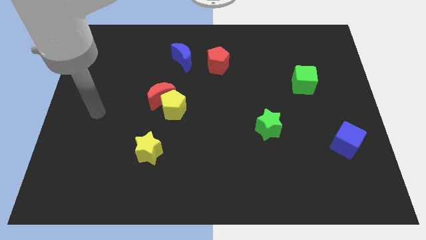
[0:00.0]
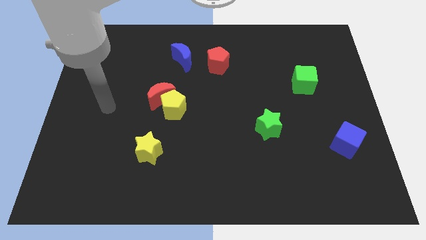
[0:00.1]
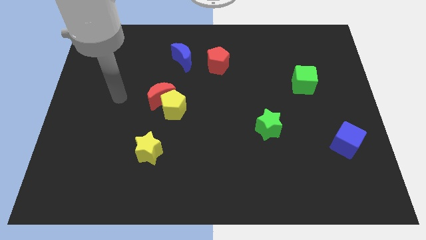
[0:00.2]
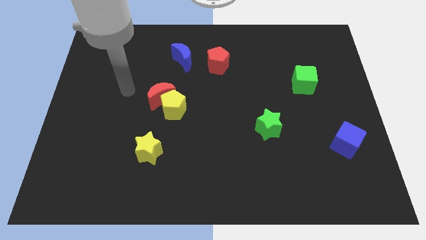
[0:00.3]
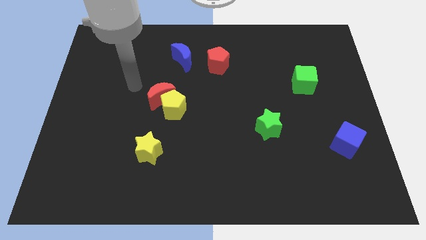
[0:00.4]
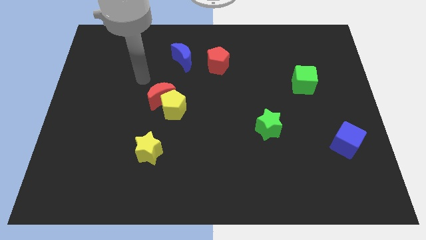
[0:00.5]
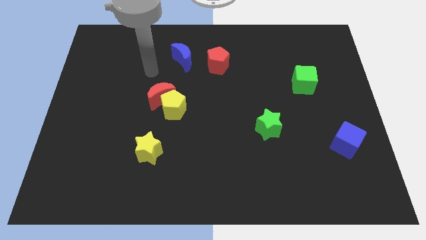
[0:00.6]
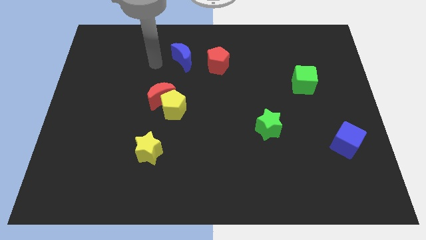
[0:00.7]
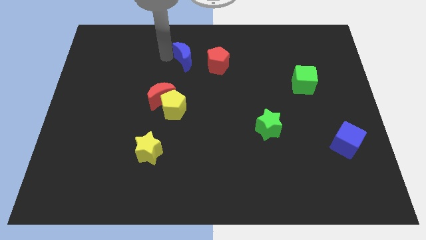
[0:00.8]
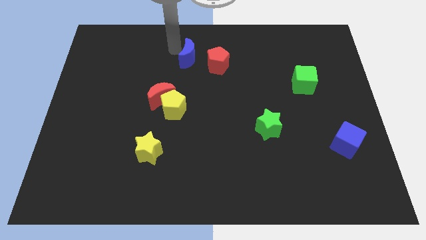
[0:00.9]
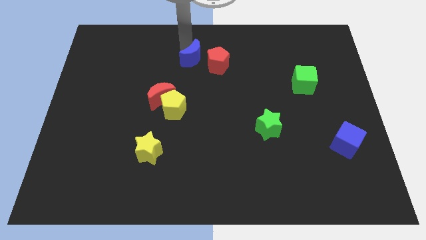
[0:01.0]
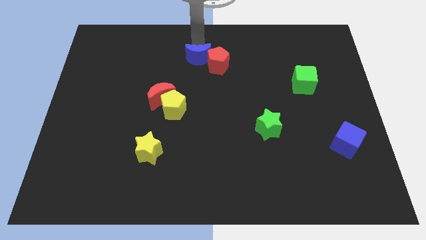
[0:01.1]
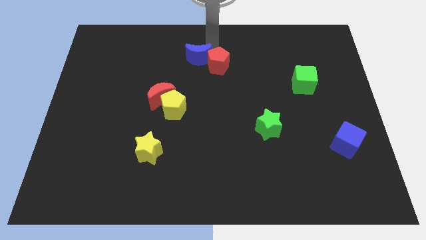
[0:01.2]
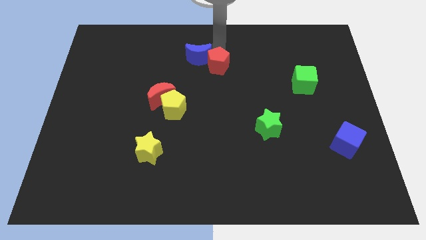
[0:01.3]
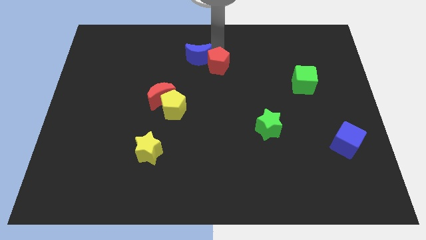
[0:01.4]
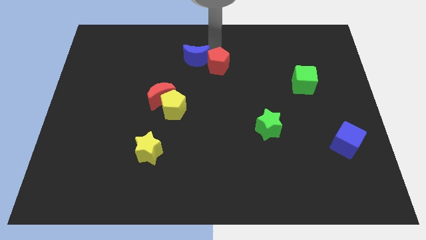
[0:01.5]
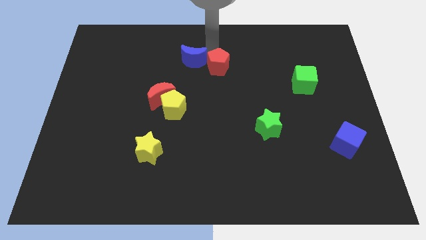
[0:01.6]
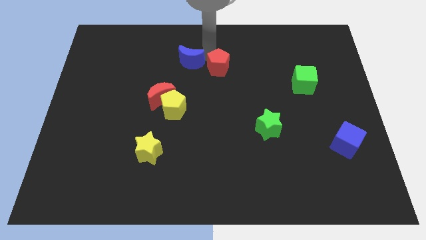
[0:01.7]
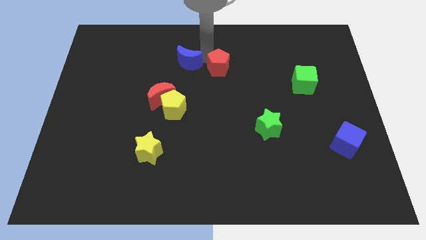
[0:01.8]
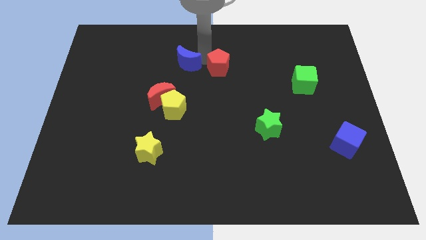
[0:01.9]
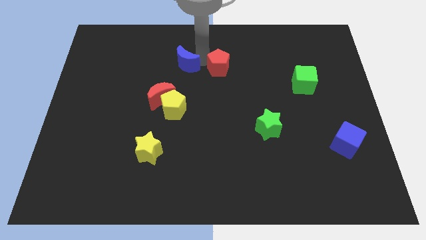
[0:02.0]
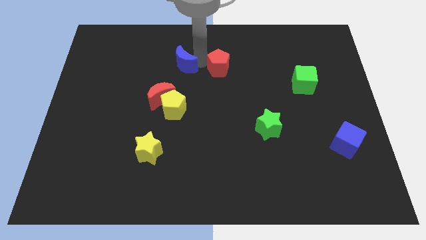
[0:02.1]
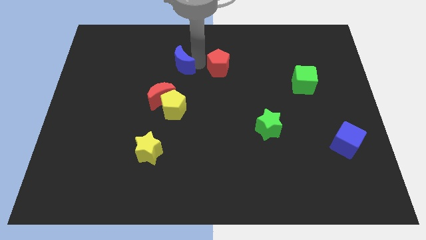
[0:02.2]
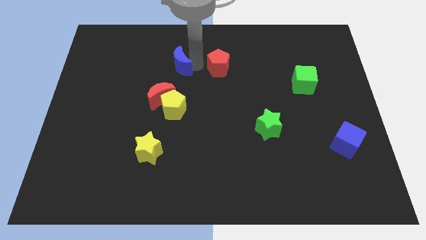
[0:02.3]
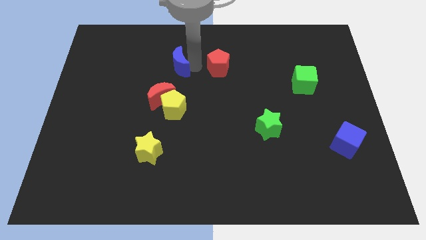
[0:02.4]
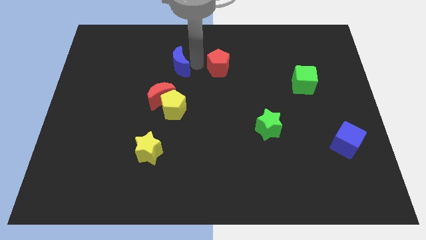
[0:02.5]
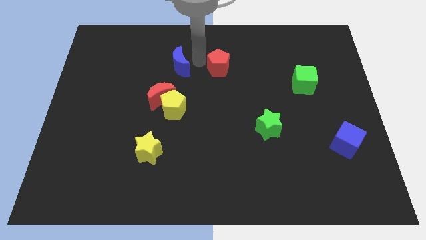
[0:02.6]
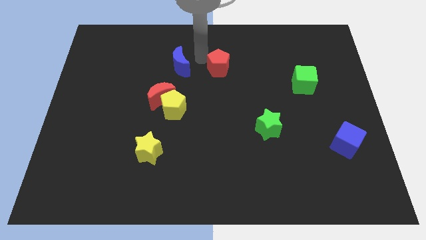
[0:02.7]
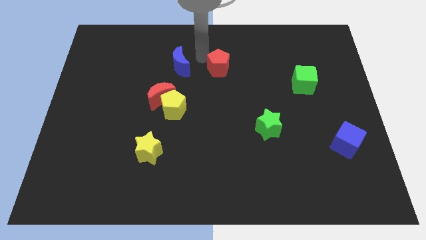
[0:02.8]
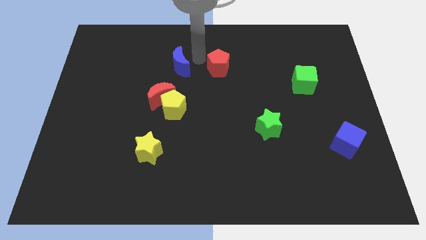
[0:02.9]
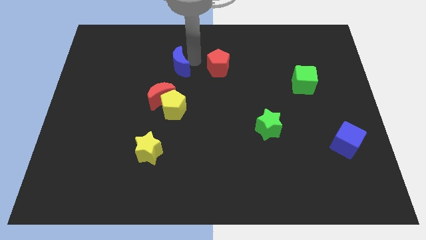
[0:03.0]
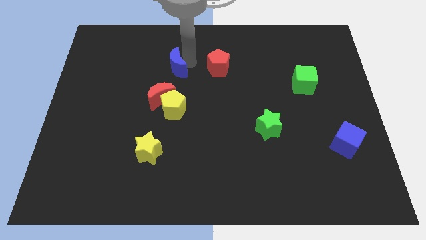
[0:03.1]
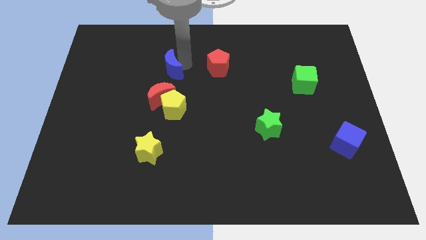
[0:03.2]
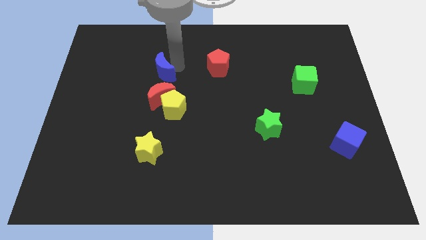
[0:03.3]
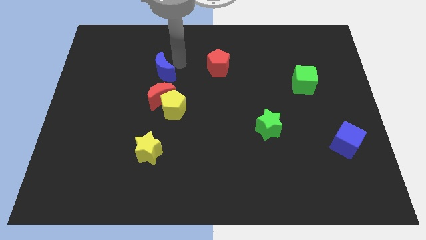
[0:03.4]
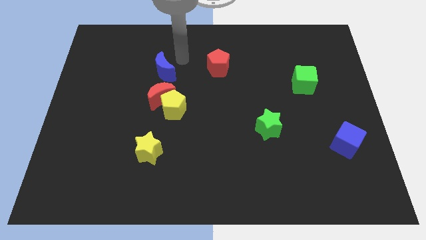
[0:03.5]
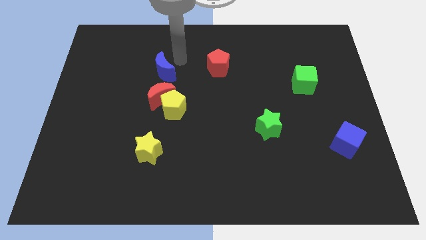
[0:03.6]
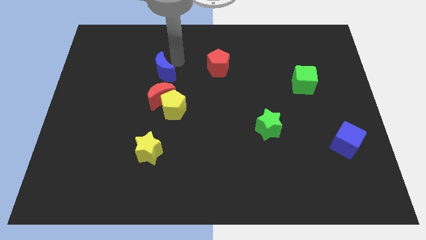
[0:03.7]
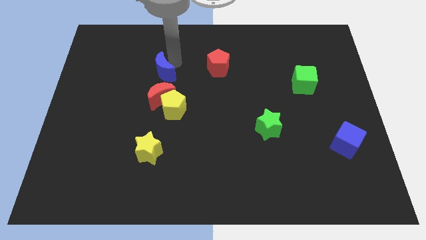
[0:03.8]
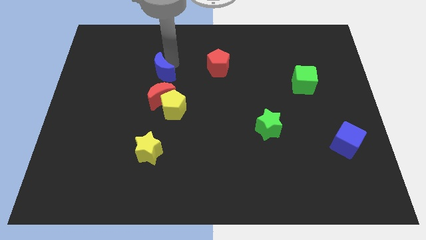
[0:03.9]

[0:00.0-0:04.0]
slide the blue moon diagonally down and left slightly

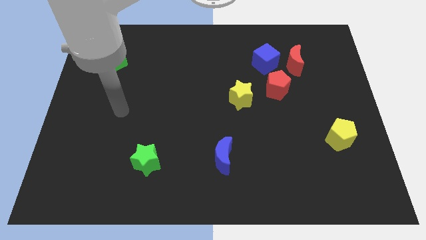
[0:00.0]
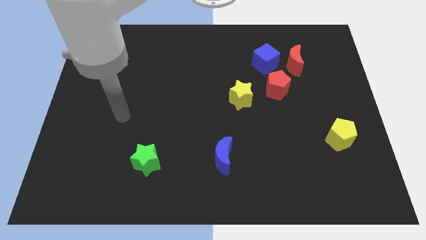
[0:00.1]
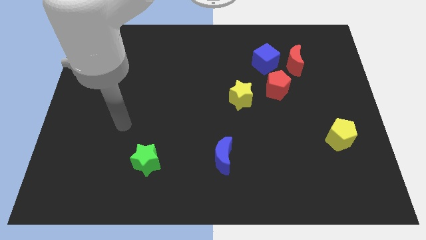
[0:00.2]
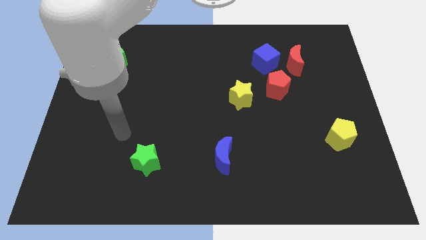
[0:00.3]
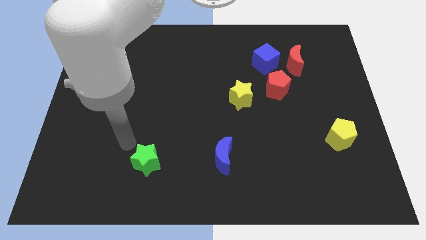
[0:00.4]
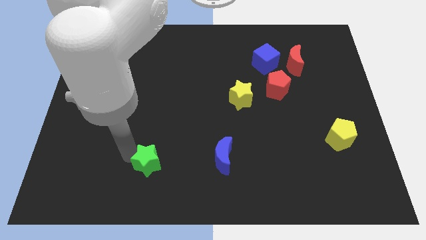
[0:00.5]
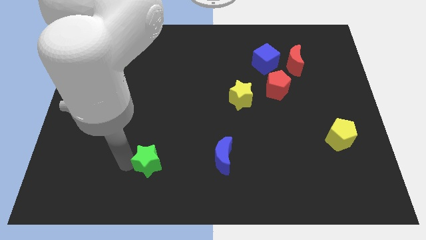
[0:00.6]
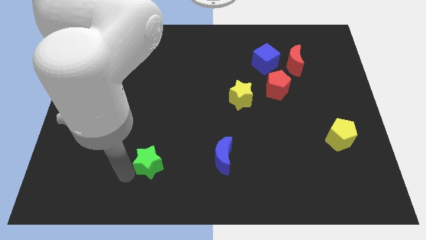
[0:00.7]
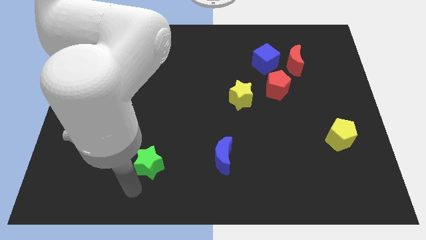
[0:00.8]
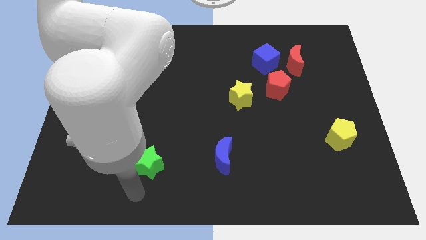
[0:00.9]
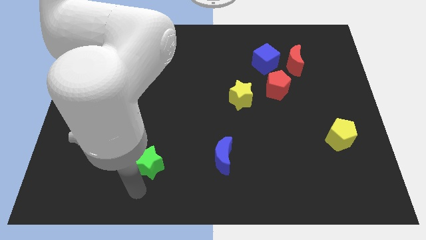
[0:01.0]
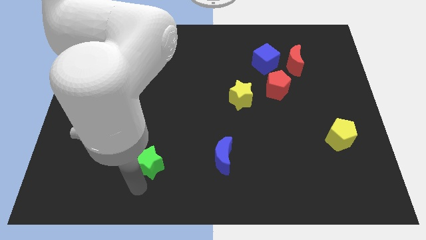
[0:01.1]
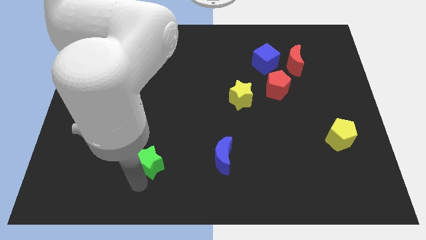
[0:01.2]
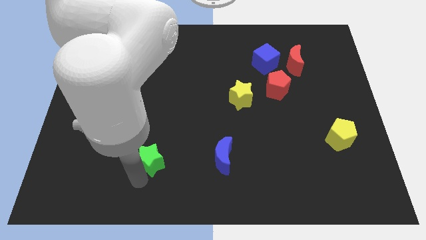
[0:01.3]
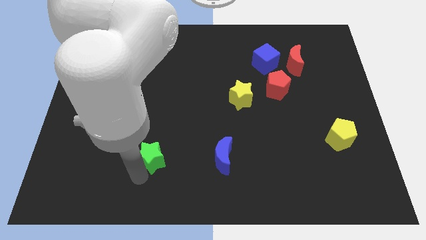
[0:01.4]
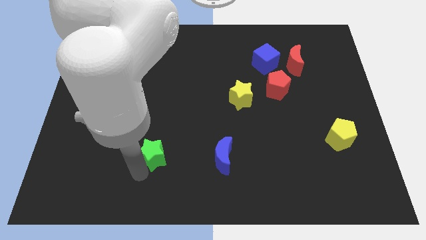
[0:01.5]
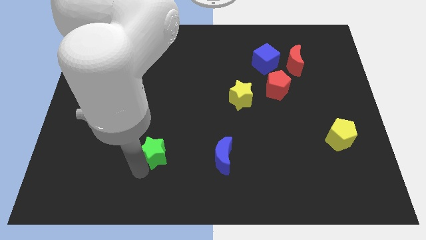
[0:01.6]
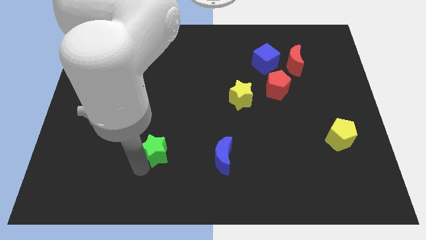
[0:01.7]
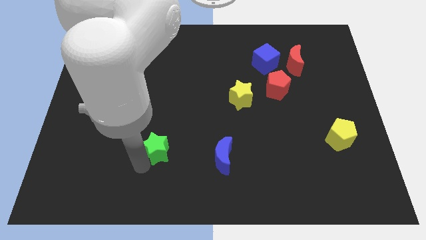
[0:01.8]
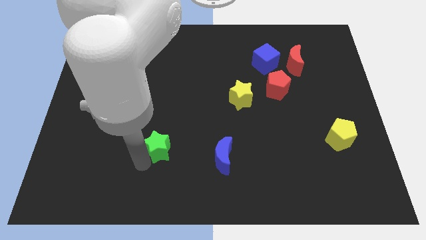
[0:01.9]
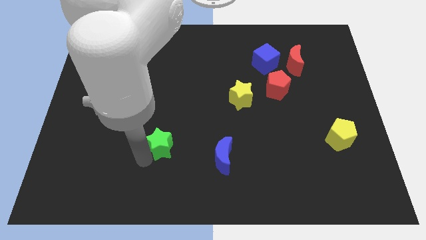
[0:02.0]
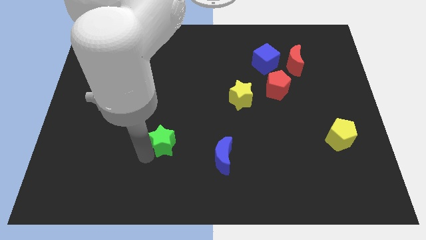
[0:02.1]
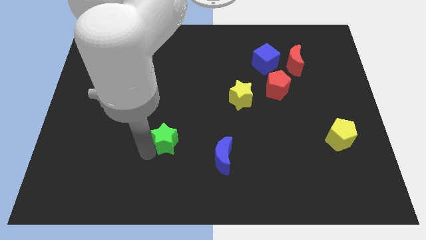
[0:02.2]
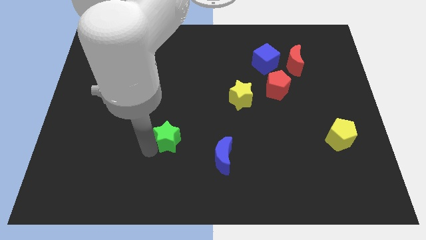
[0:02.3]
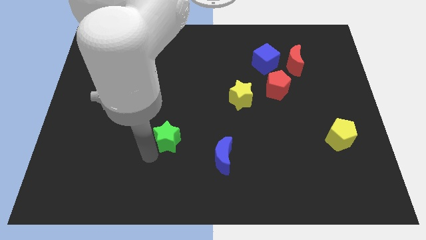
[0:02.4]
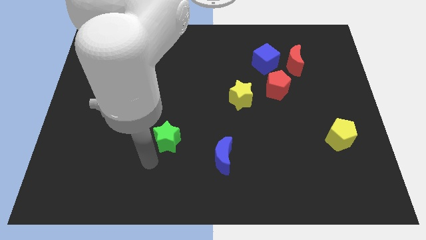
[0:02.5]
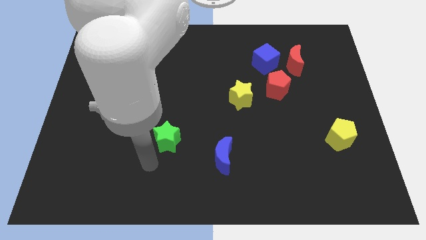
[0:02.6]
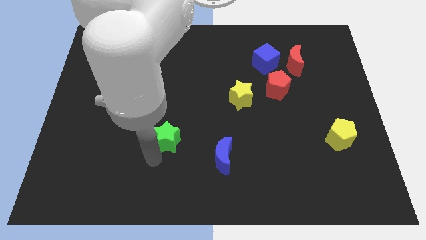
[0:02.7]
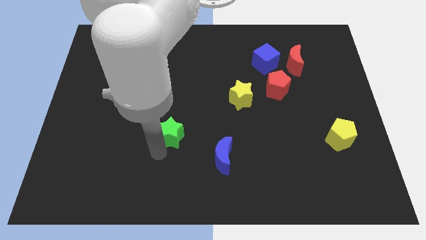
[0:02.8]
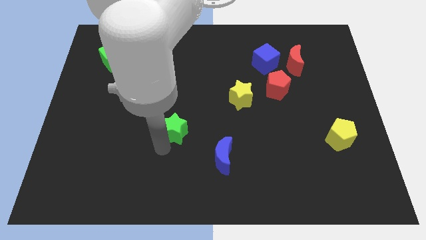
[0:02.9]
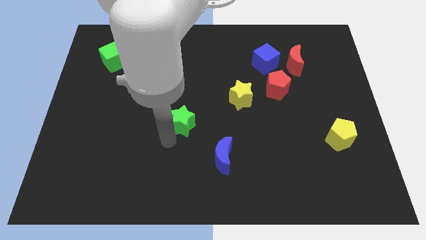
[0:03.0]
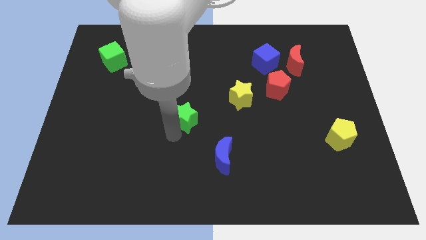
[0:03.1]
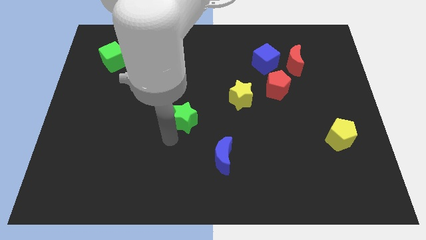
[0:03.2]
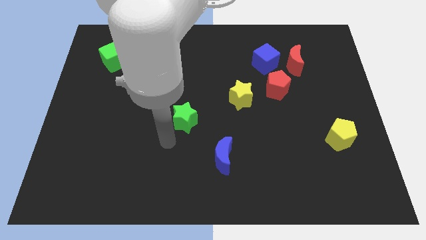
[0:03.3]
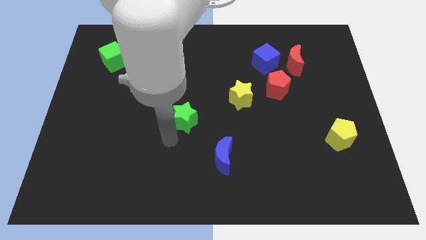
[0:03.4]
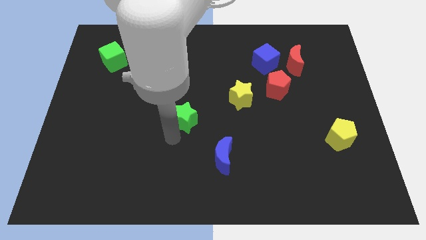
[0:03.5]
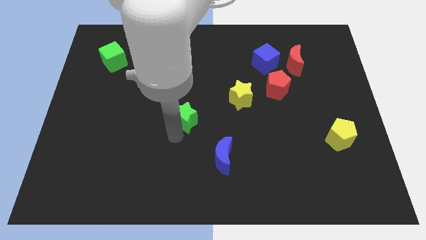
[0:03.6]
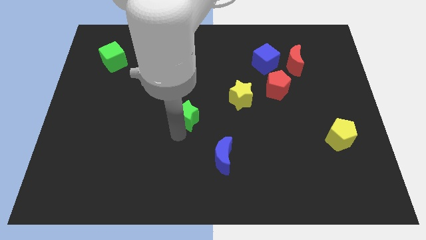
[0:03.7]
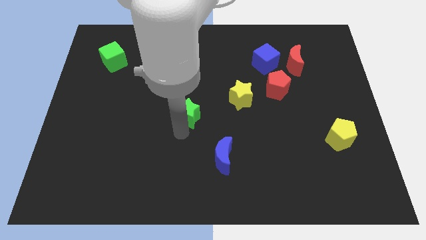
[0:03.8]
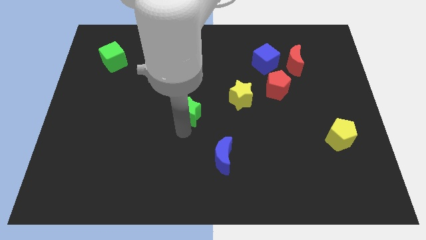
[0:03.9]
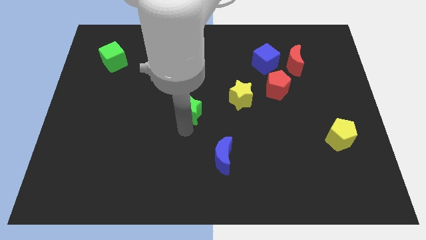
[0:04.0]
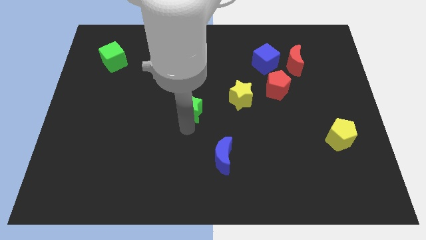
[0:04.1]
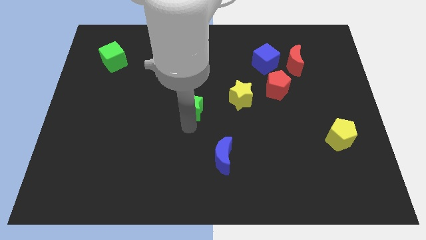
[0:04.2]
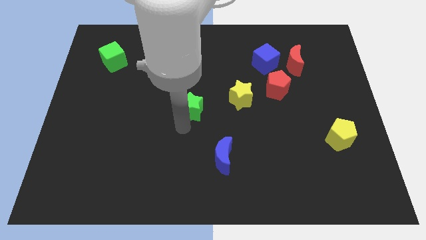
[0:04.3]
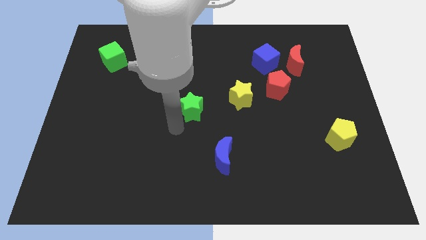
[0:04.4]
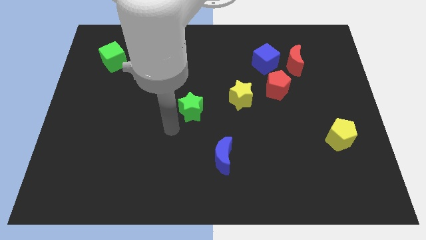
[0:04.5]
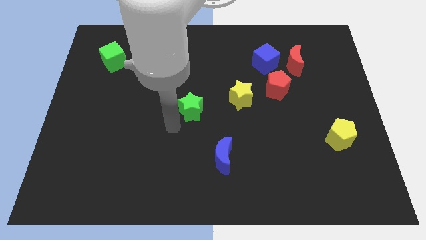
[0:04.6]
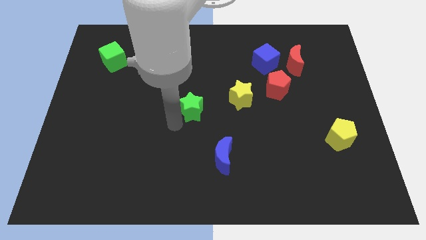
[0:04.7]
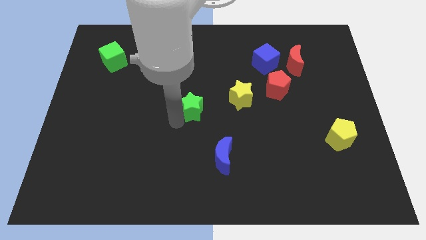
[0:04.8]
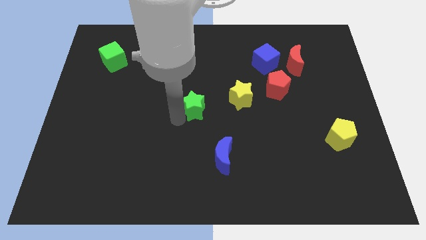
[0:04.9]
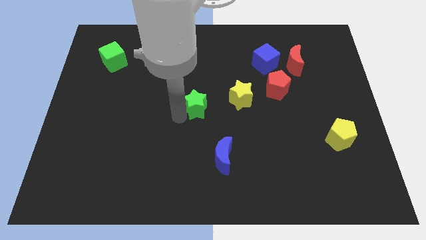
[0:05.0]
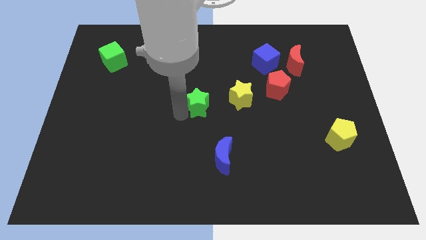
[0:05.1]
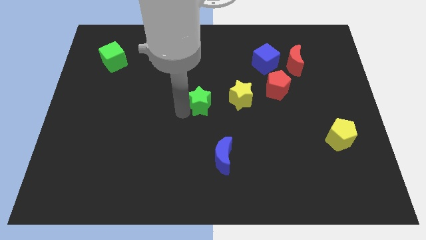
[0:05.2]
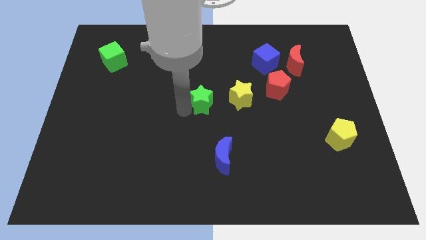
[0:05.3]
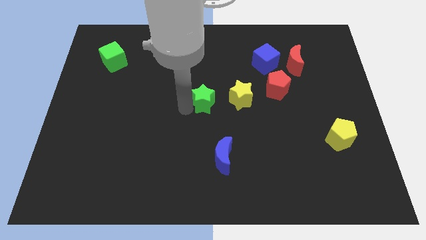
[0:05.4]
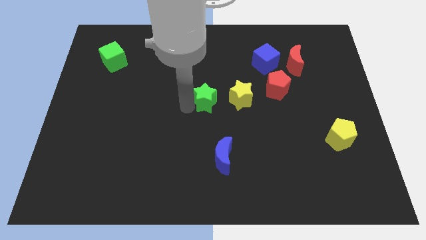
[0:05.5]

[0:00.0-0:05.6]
push the green star upwards and then to the right
